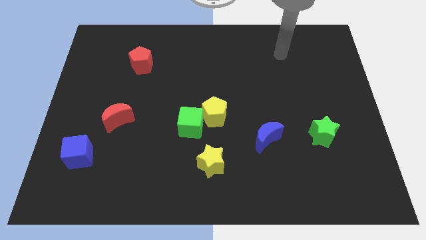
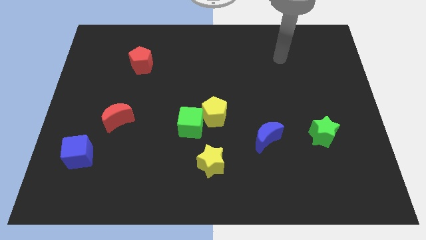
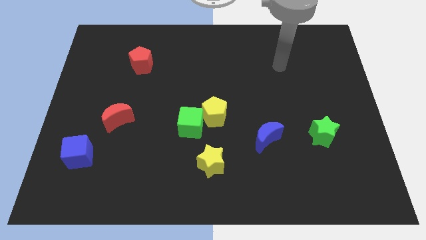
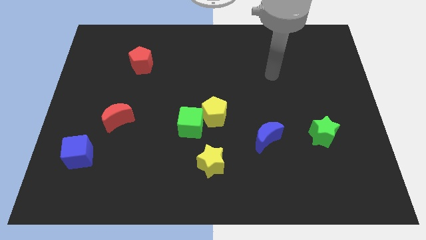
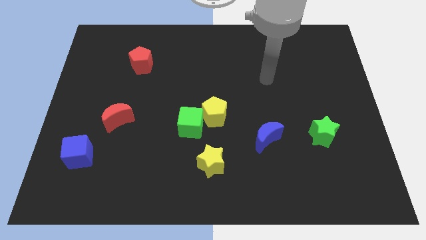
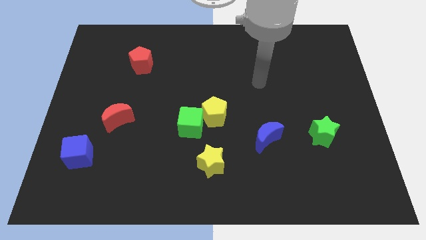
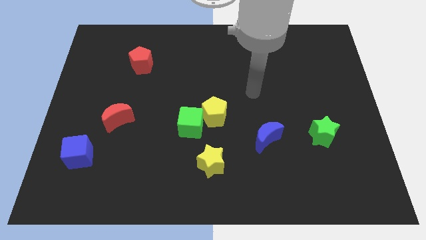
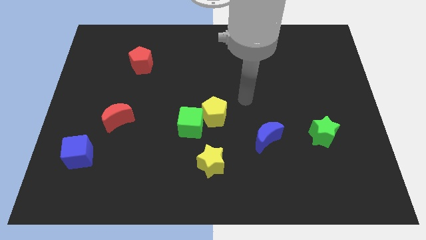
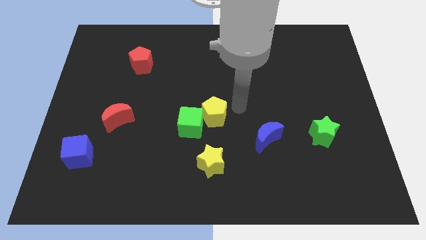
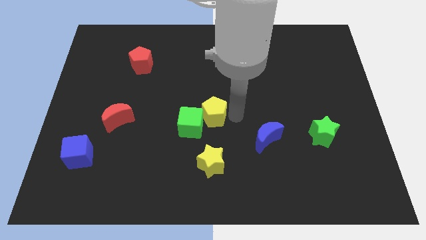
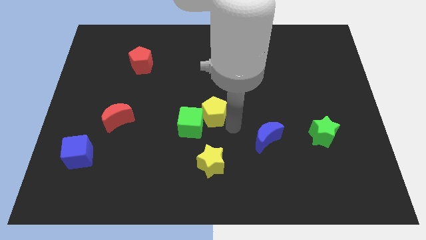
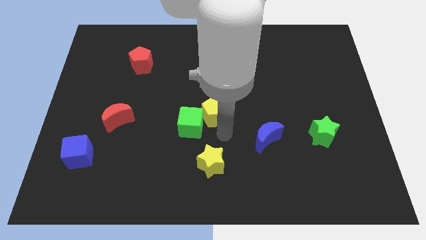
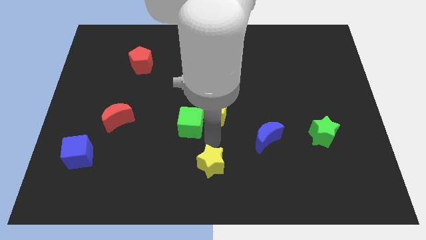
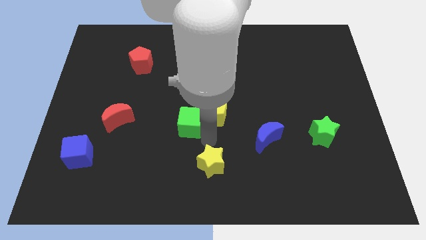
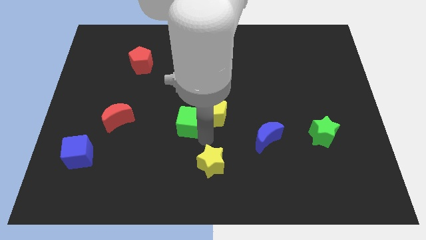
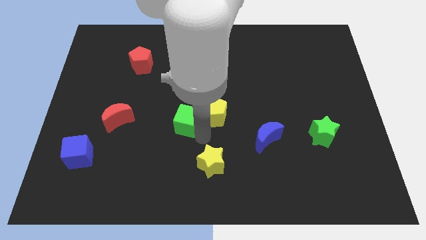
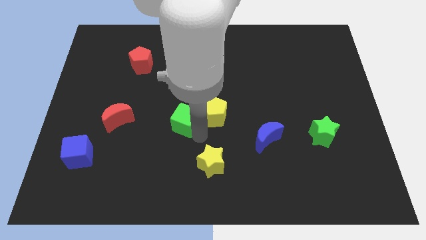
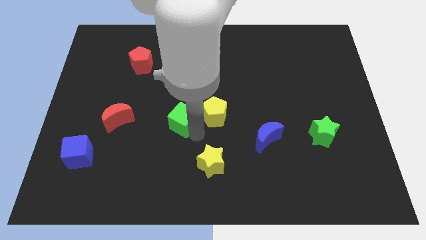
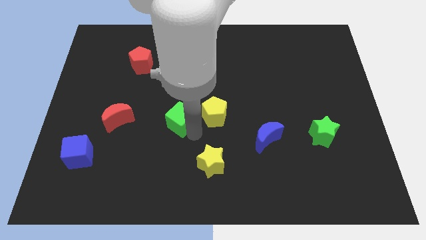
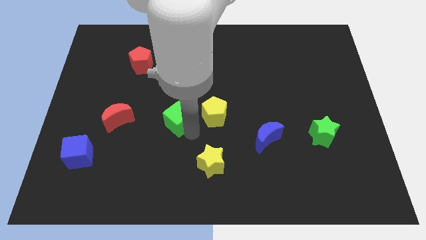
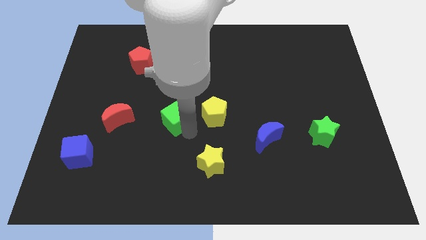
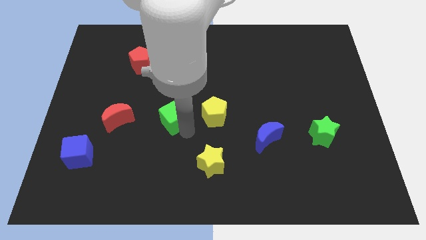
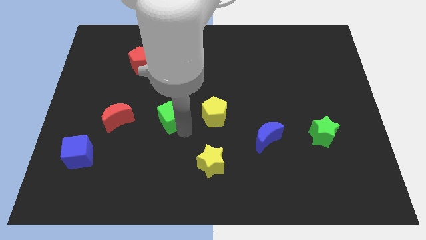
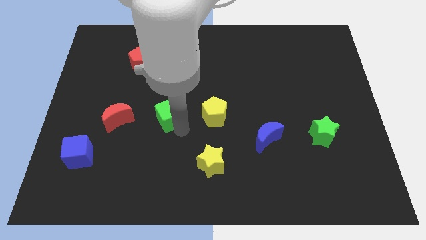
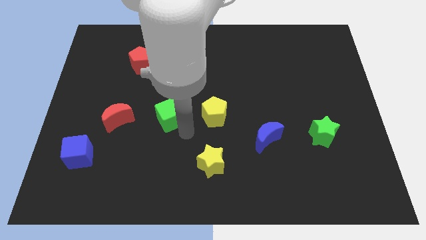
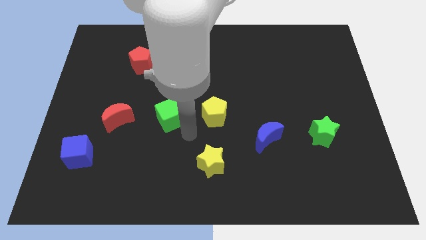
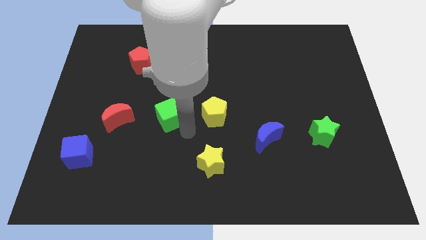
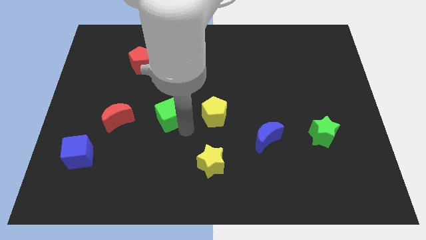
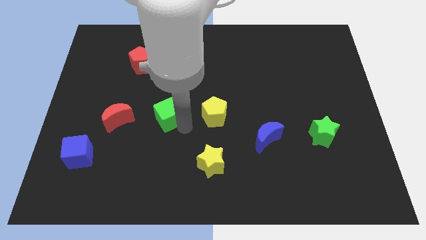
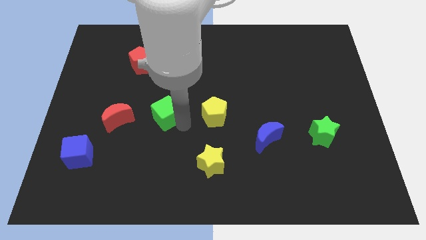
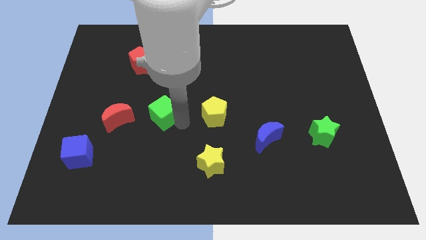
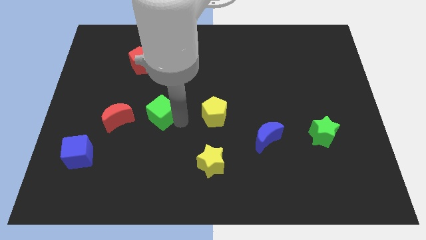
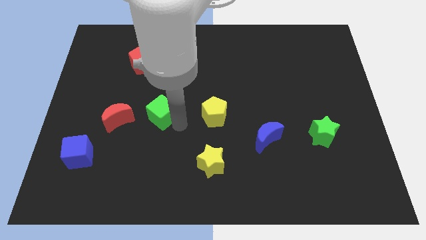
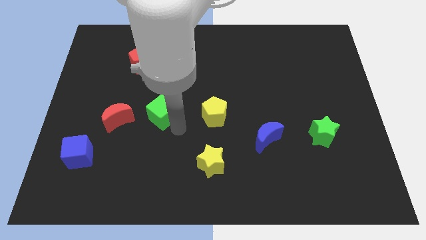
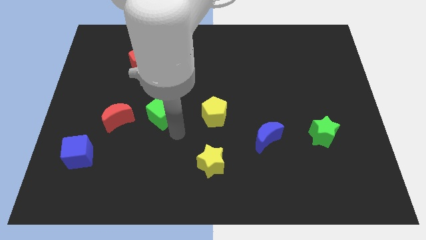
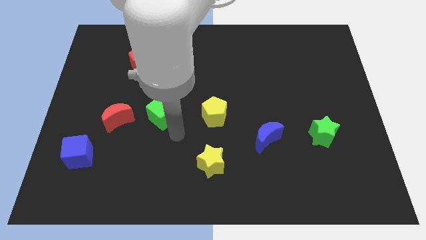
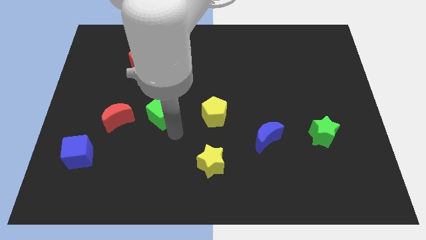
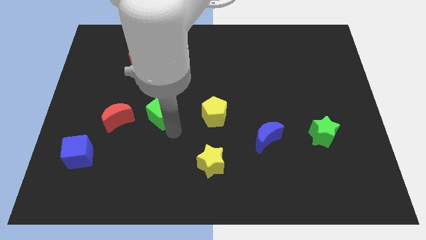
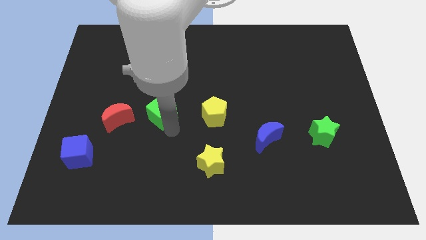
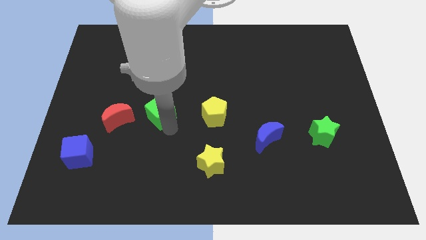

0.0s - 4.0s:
slightly move the green cube up and then to the left

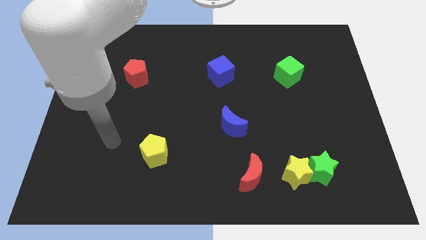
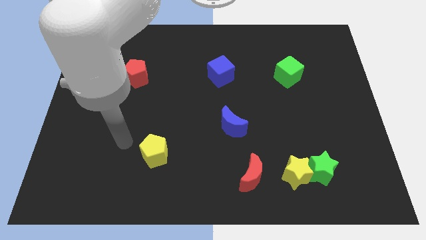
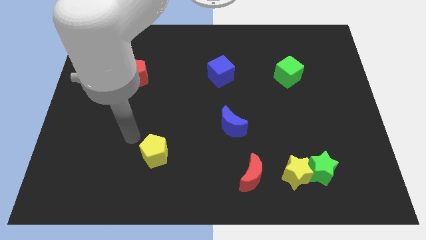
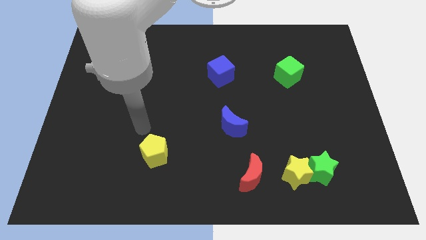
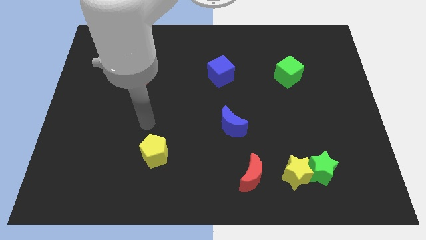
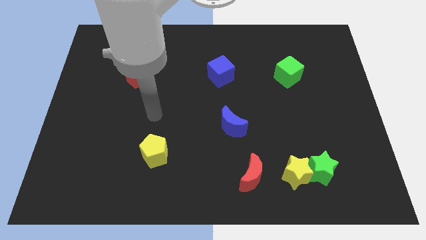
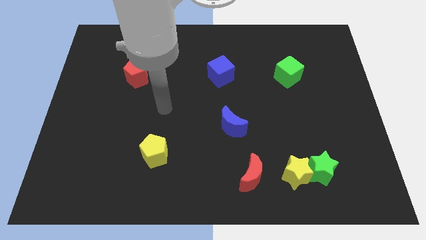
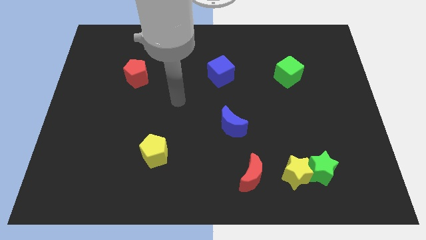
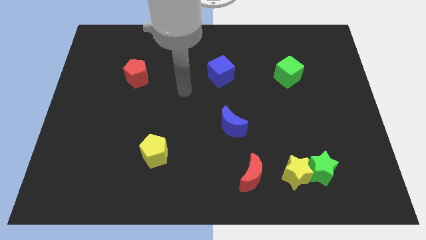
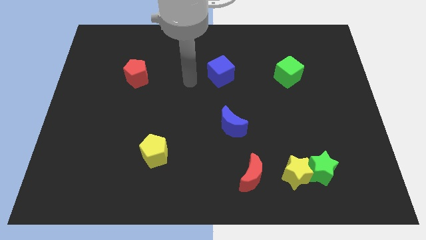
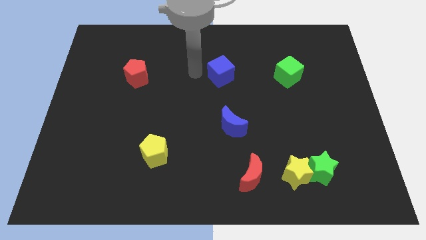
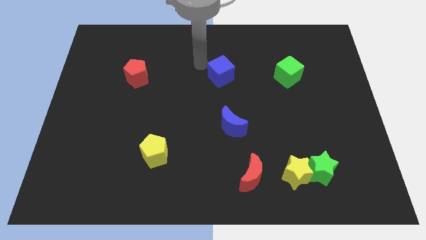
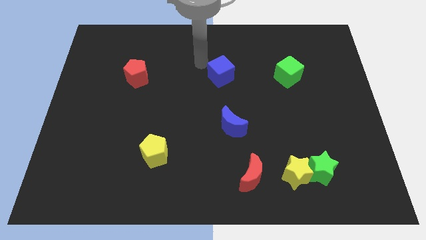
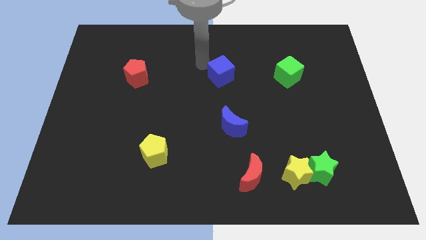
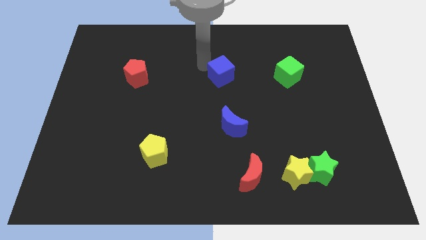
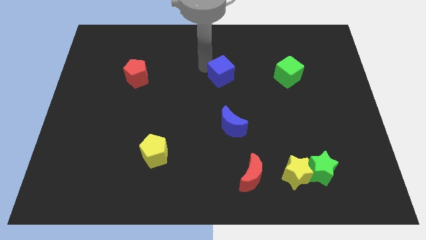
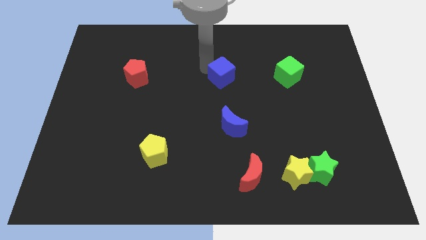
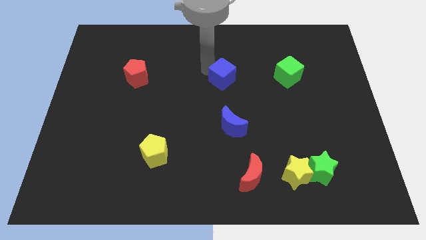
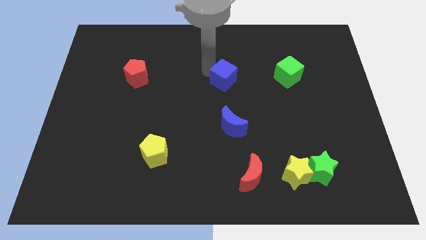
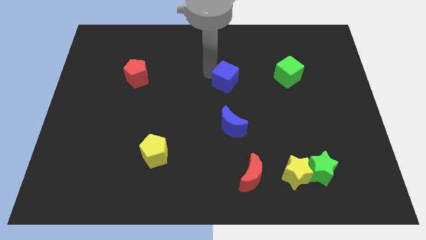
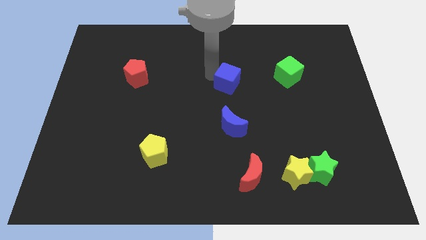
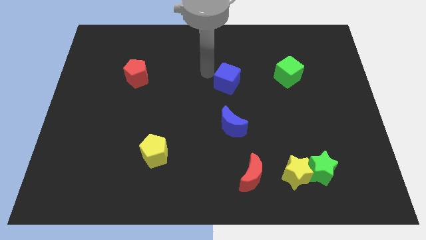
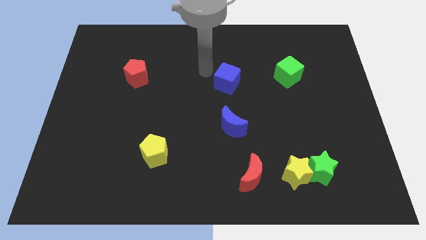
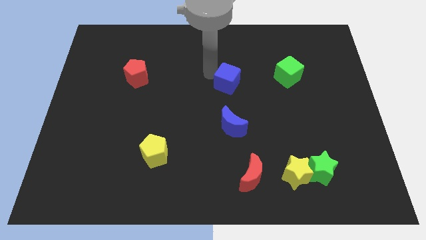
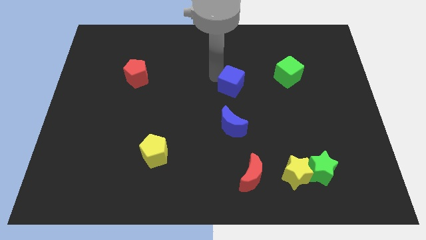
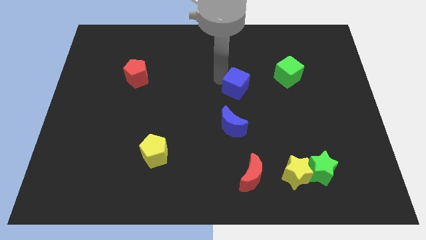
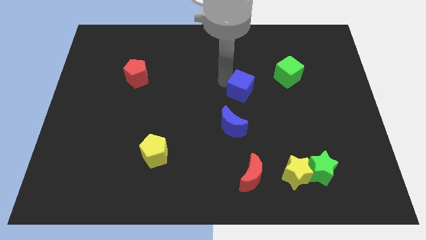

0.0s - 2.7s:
slightly slide the blue cube downwards and to the right diagonally

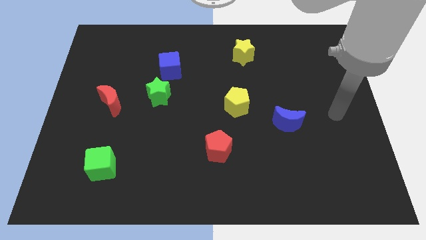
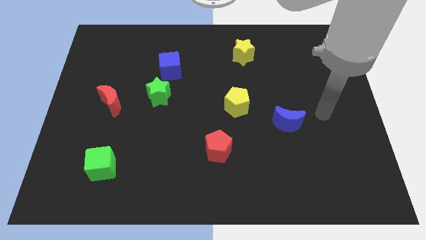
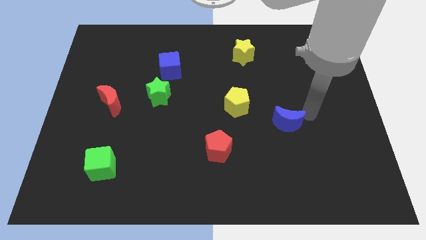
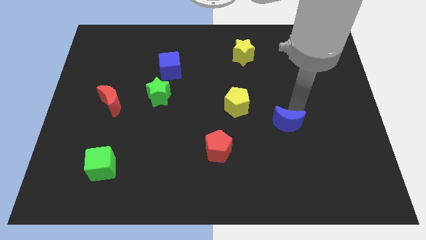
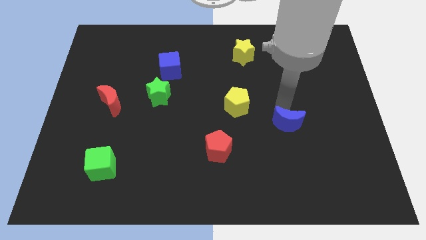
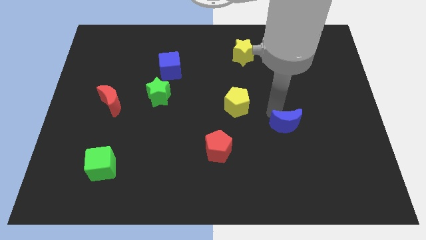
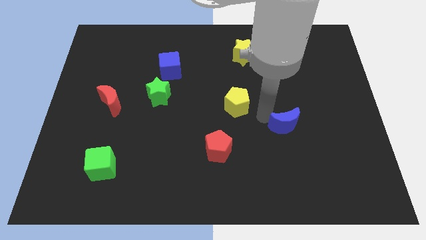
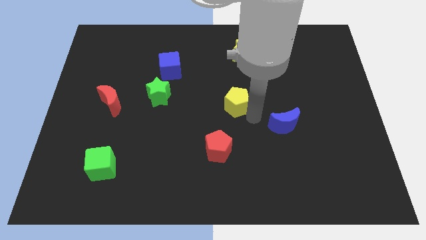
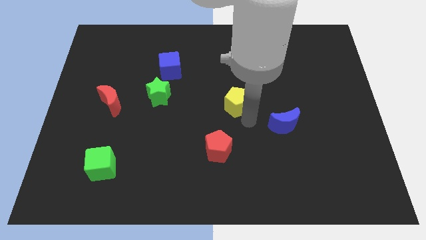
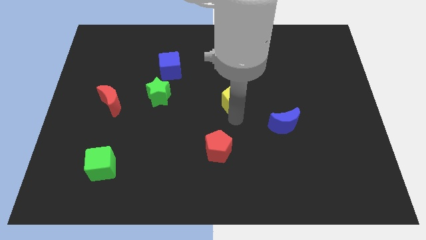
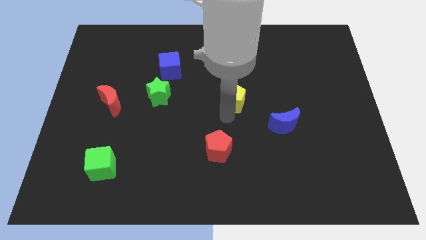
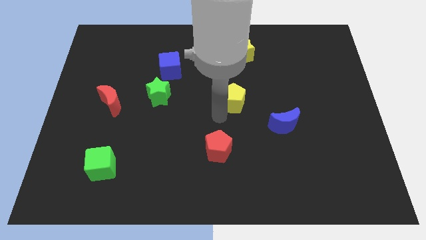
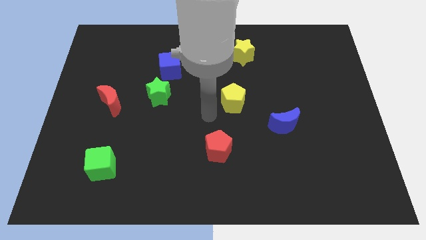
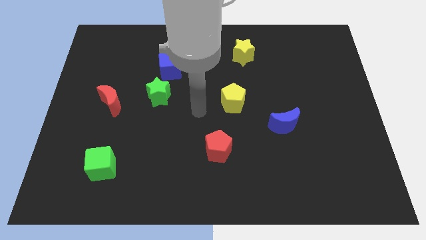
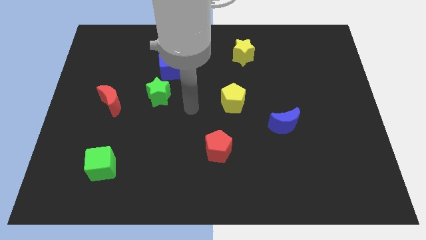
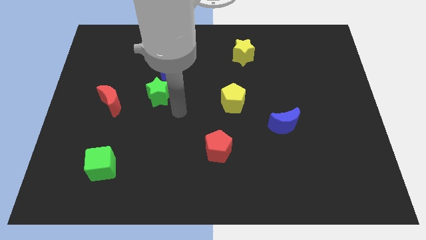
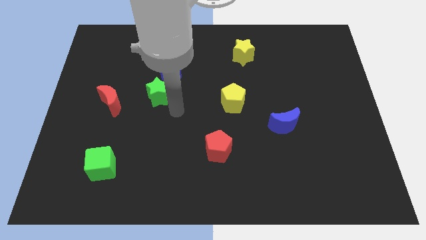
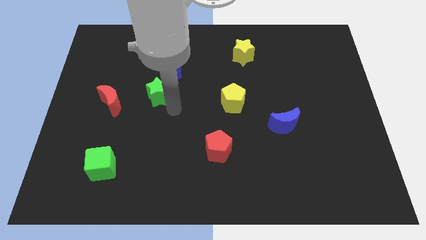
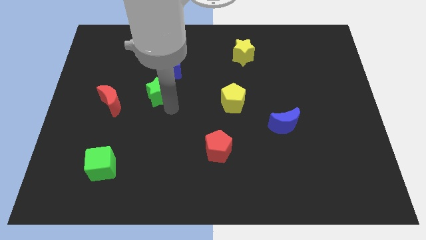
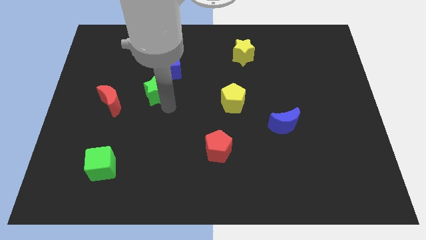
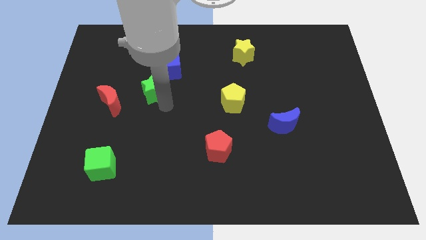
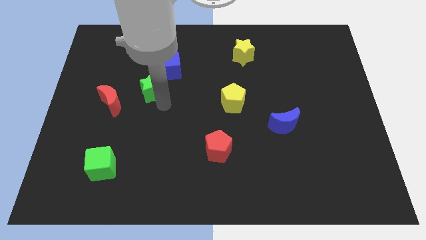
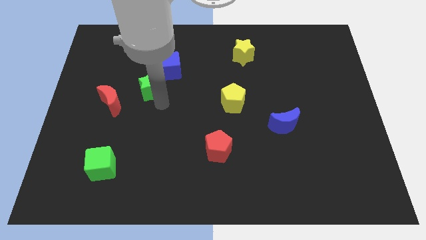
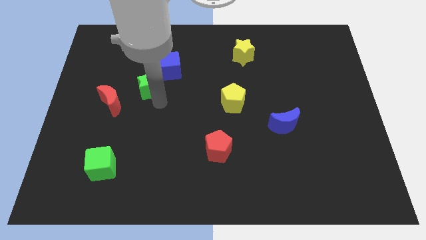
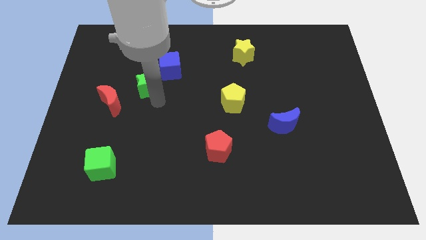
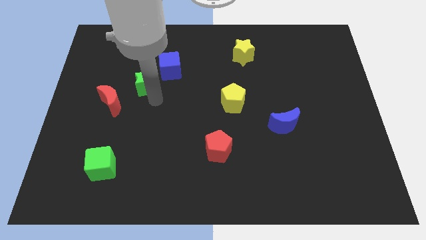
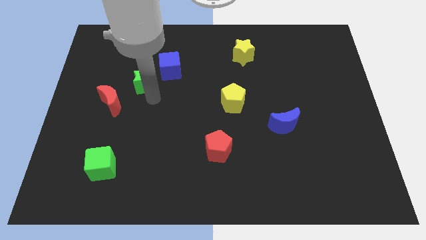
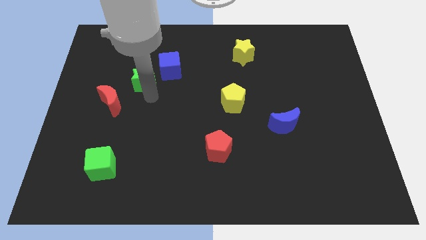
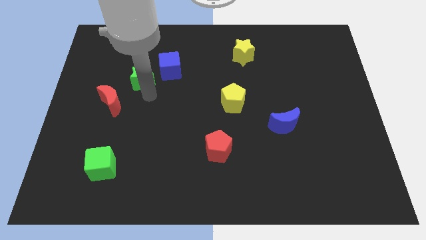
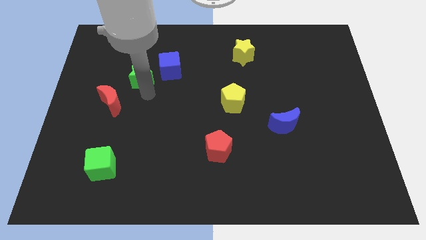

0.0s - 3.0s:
slightly push the green star upwards and then left
